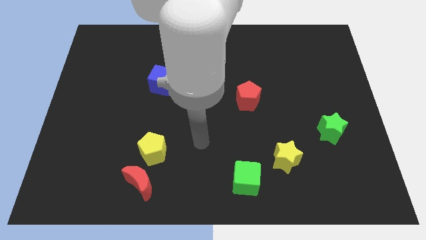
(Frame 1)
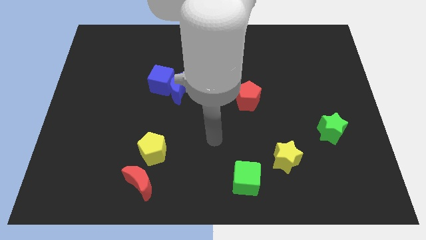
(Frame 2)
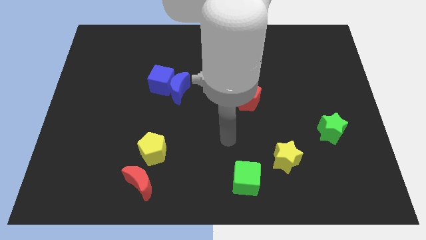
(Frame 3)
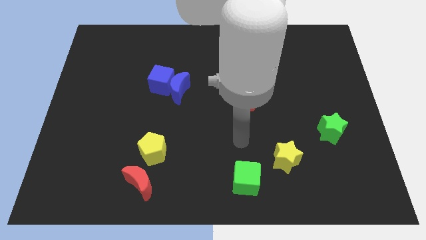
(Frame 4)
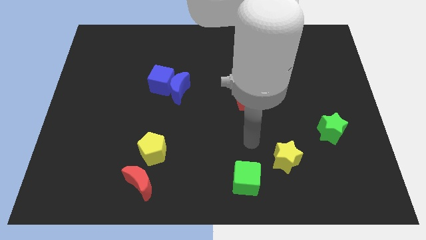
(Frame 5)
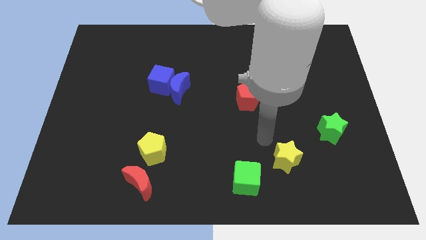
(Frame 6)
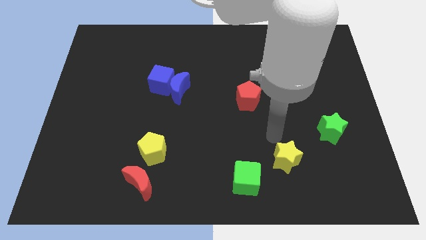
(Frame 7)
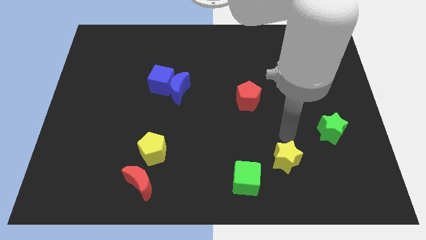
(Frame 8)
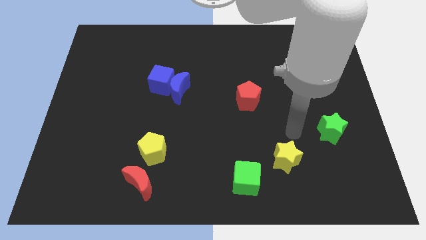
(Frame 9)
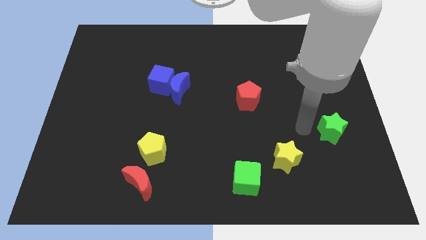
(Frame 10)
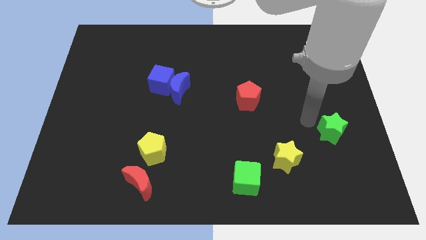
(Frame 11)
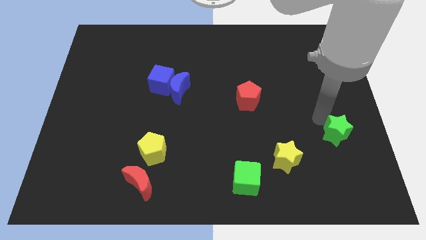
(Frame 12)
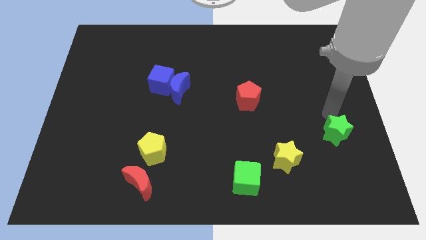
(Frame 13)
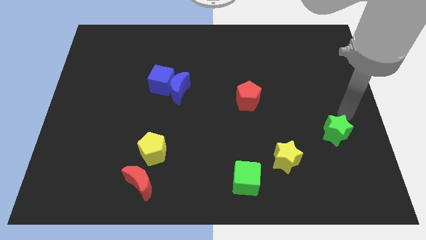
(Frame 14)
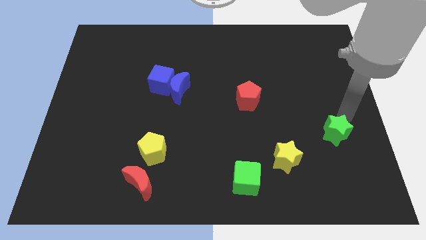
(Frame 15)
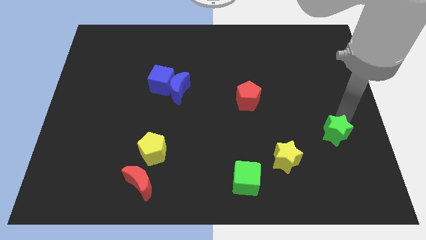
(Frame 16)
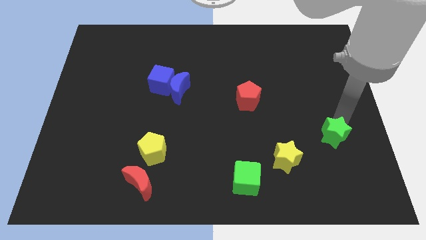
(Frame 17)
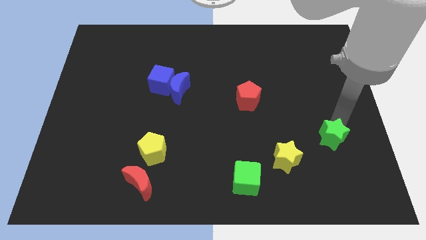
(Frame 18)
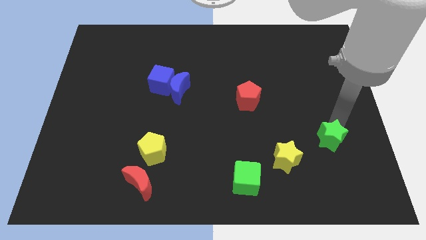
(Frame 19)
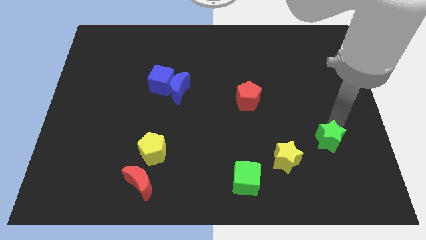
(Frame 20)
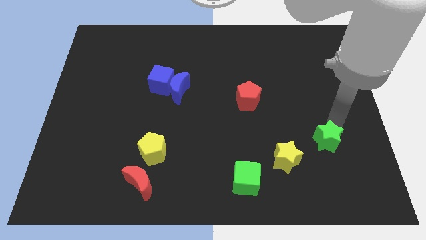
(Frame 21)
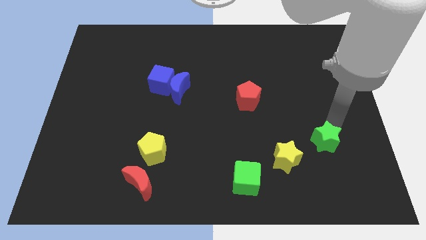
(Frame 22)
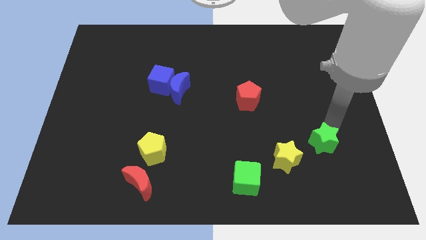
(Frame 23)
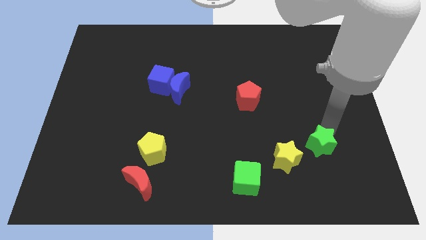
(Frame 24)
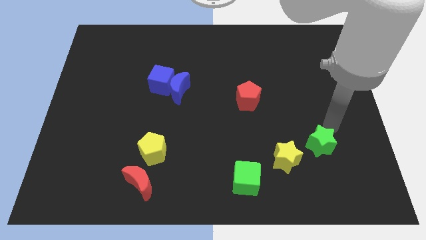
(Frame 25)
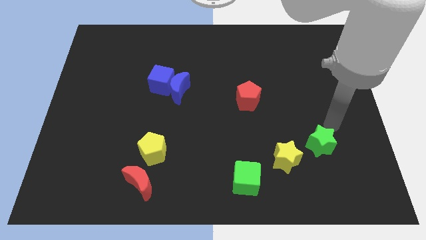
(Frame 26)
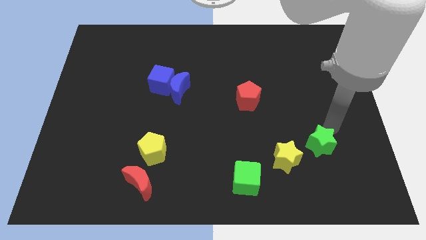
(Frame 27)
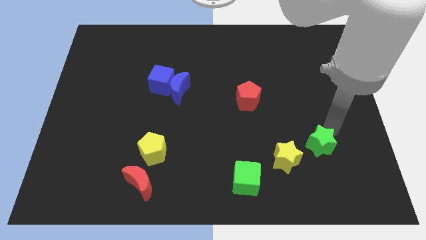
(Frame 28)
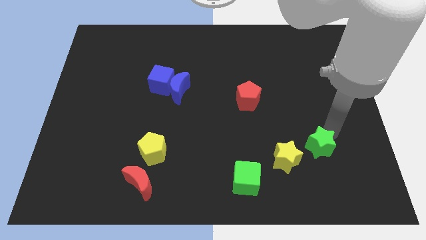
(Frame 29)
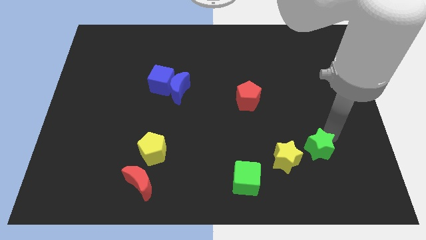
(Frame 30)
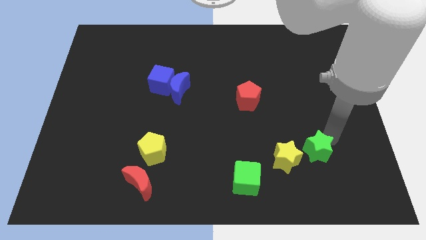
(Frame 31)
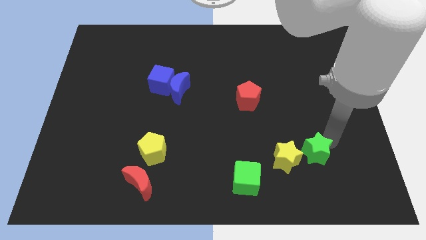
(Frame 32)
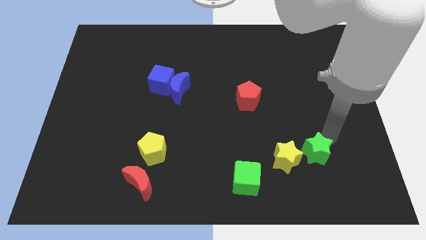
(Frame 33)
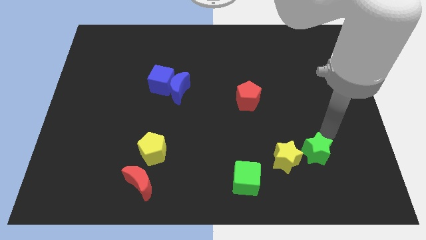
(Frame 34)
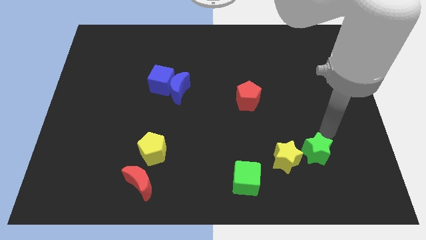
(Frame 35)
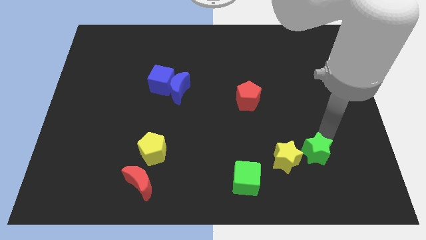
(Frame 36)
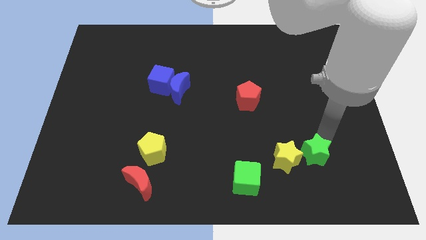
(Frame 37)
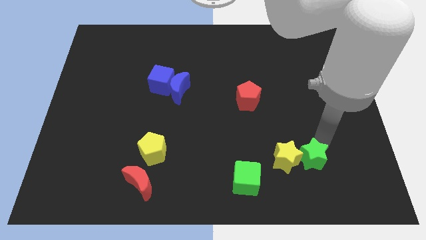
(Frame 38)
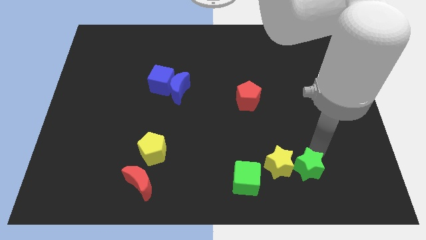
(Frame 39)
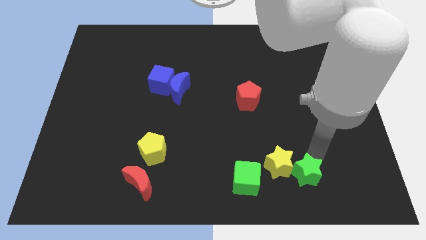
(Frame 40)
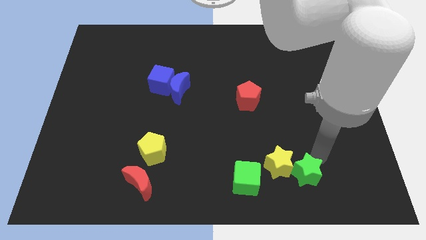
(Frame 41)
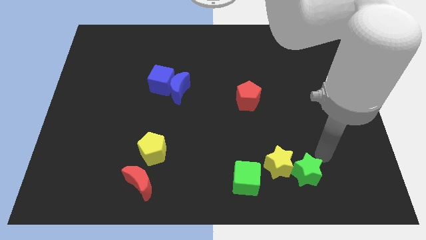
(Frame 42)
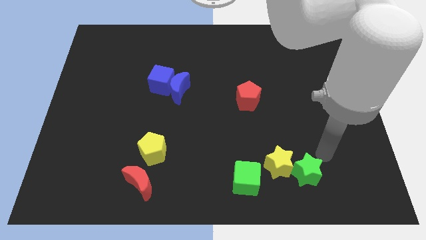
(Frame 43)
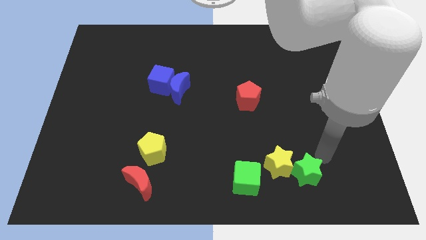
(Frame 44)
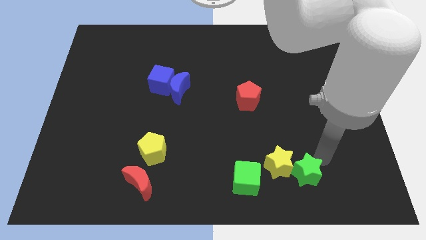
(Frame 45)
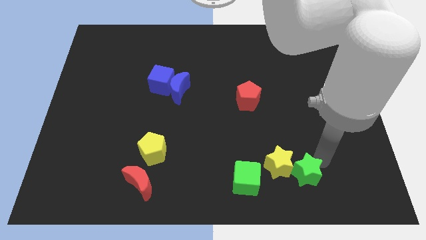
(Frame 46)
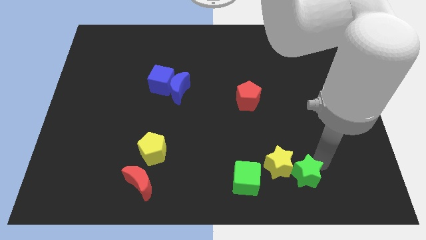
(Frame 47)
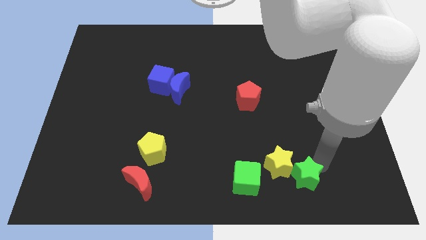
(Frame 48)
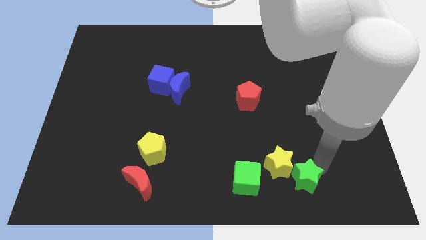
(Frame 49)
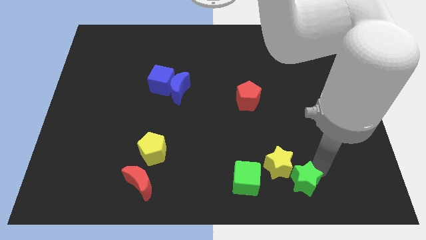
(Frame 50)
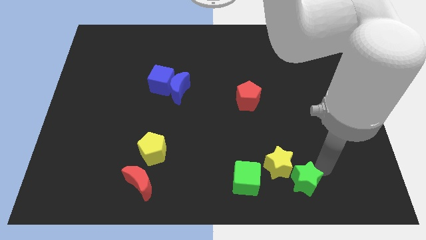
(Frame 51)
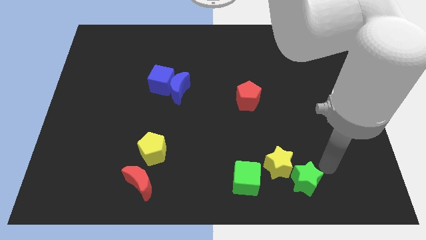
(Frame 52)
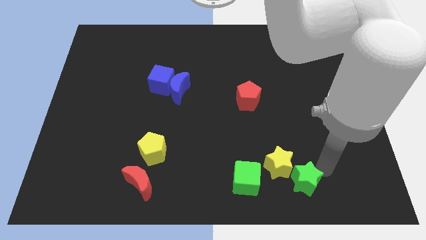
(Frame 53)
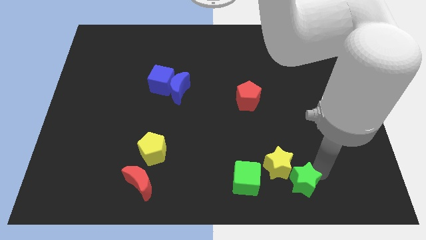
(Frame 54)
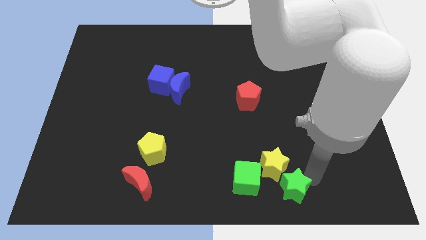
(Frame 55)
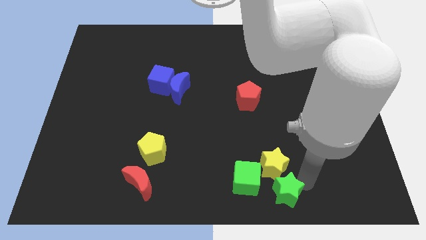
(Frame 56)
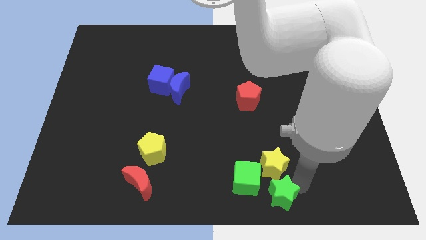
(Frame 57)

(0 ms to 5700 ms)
slide the green star to the bottom side
